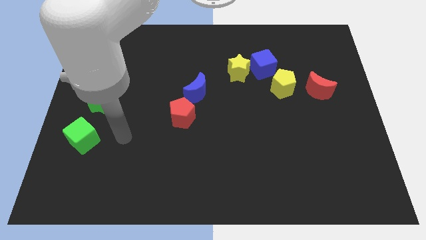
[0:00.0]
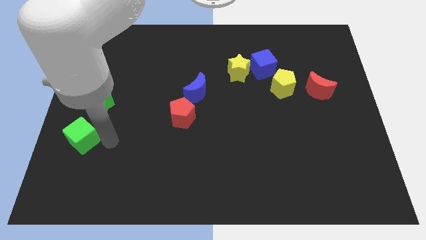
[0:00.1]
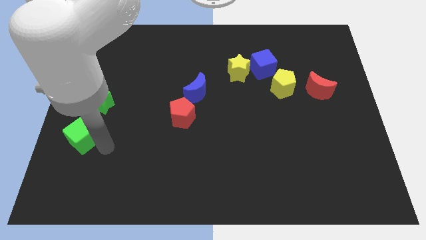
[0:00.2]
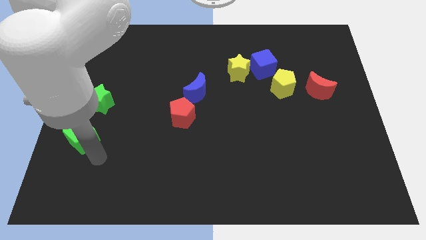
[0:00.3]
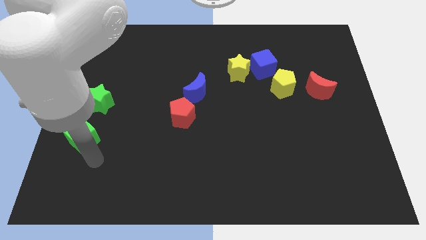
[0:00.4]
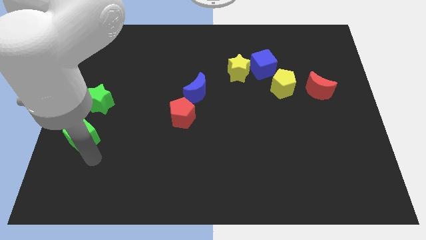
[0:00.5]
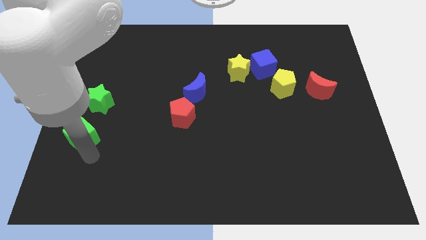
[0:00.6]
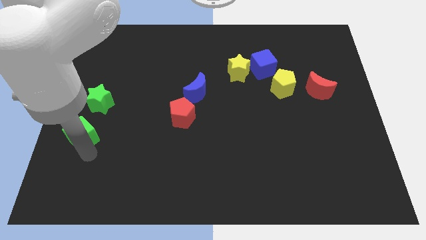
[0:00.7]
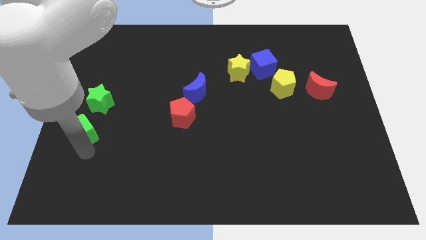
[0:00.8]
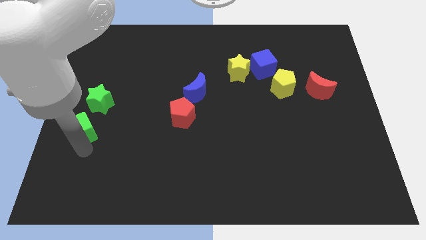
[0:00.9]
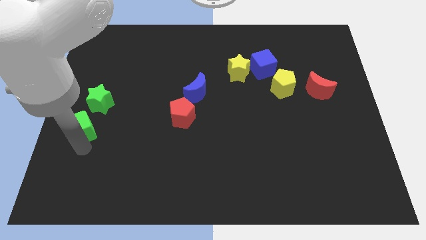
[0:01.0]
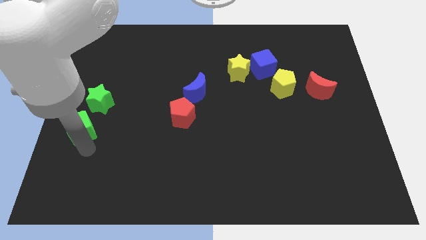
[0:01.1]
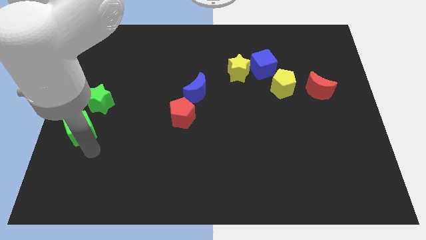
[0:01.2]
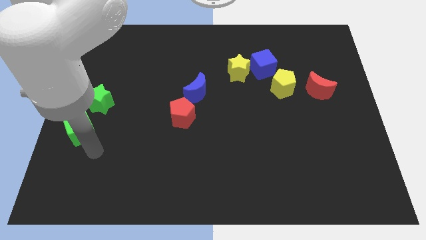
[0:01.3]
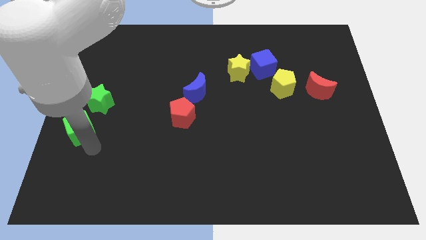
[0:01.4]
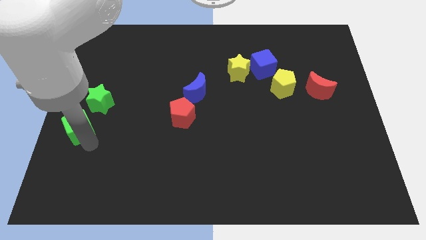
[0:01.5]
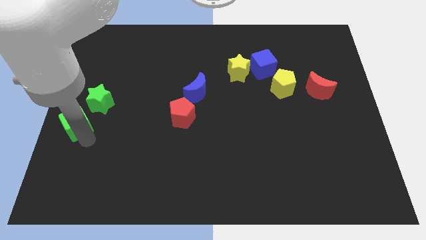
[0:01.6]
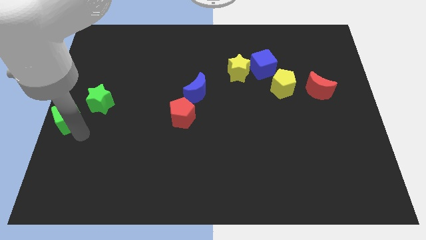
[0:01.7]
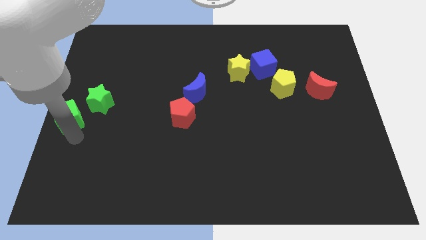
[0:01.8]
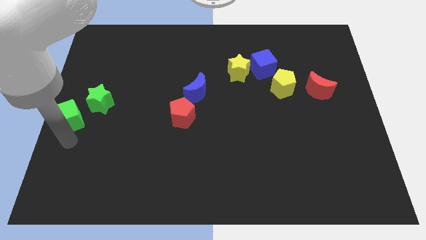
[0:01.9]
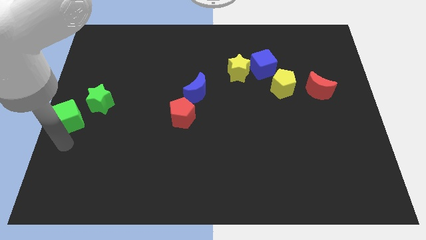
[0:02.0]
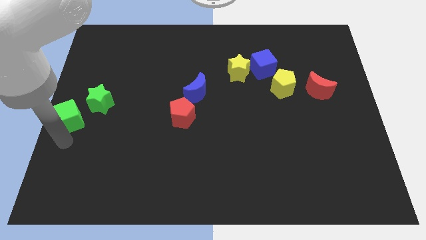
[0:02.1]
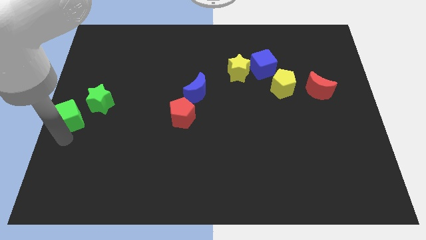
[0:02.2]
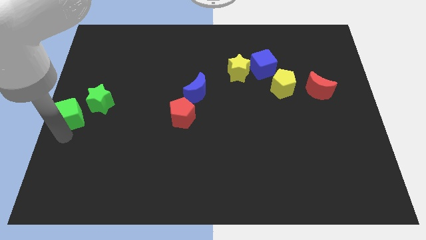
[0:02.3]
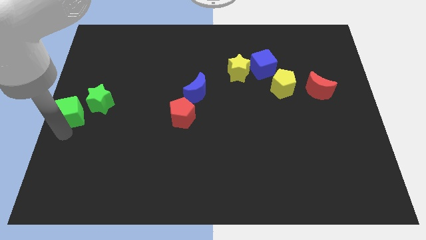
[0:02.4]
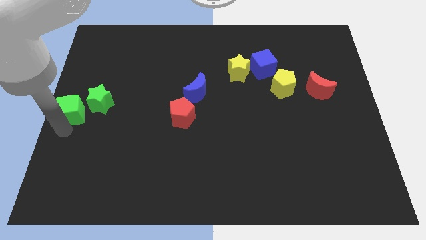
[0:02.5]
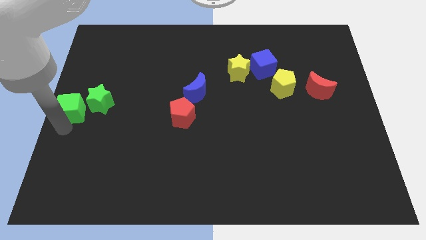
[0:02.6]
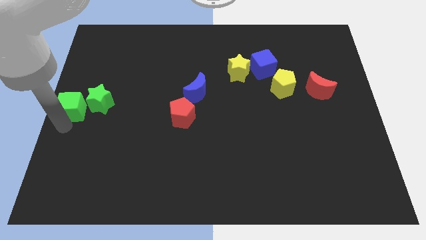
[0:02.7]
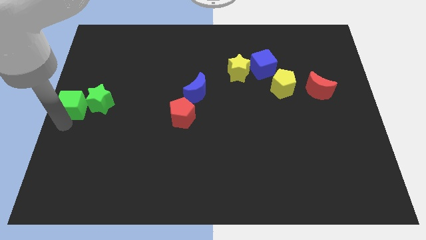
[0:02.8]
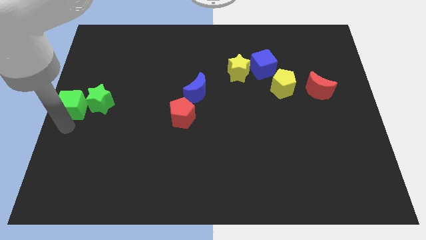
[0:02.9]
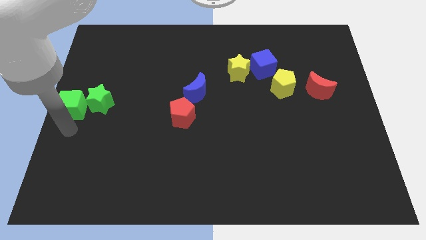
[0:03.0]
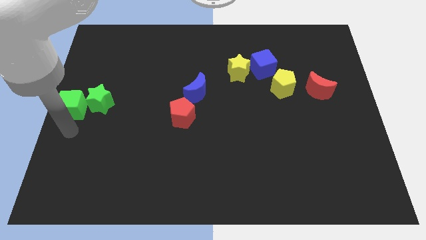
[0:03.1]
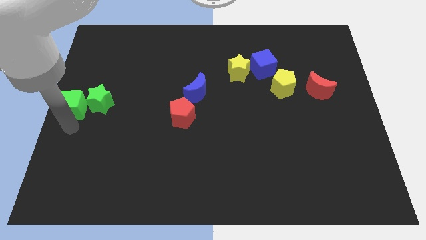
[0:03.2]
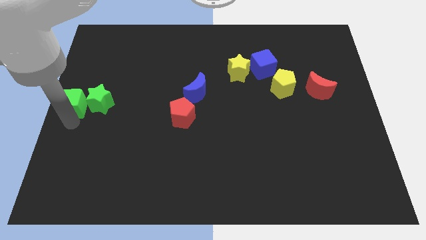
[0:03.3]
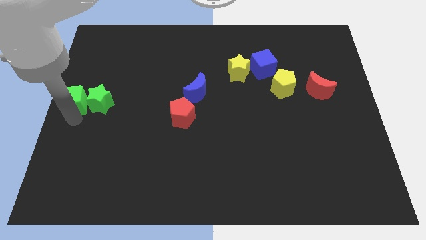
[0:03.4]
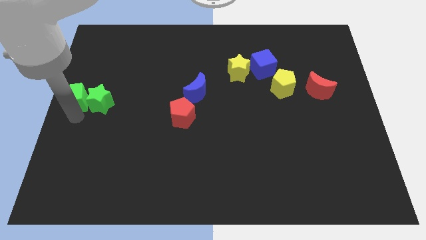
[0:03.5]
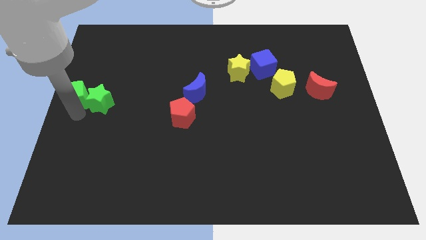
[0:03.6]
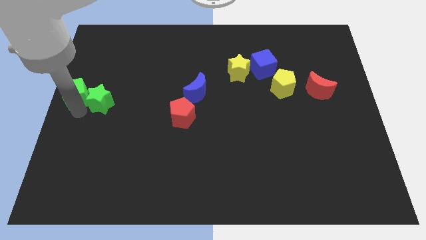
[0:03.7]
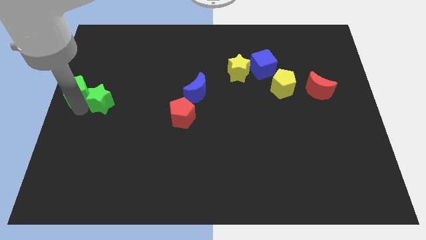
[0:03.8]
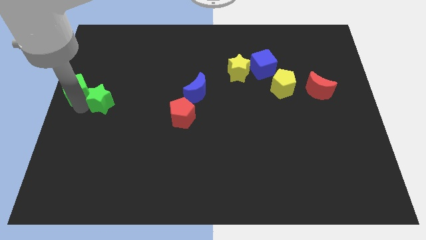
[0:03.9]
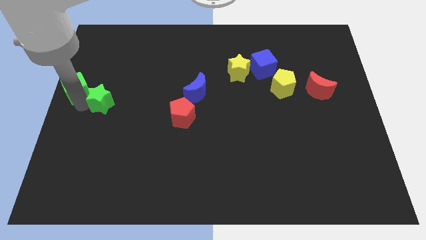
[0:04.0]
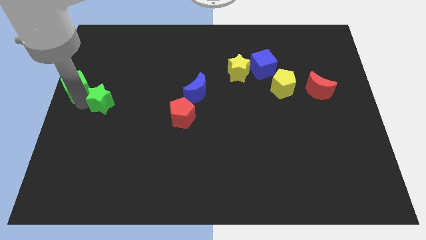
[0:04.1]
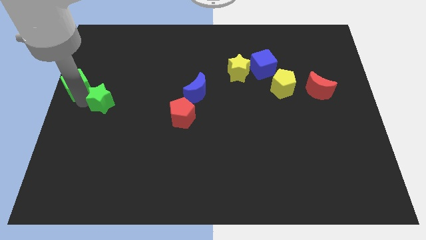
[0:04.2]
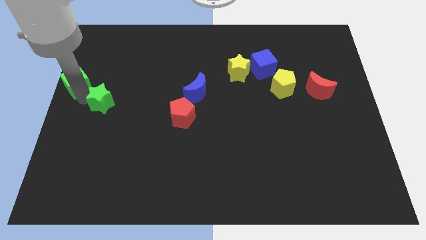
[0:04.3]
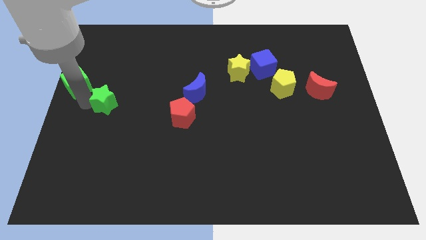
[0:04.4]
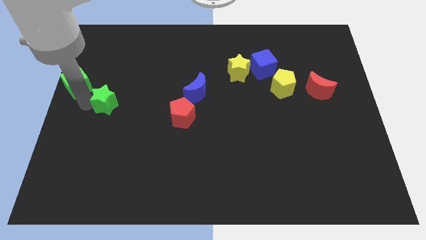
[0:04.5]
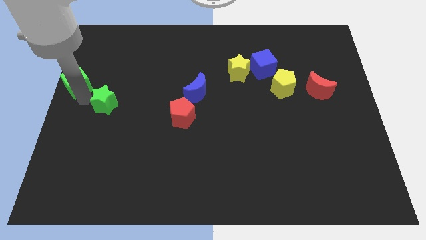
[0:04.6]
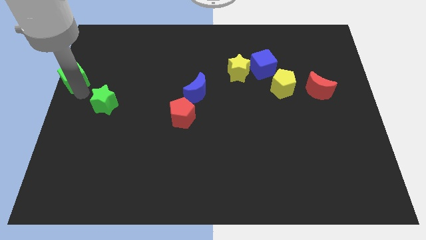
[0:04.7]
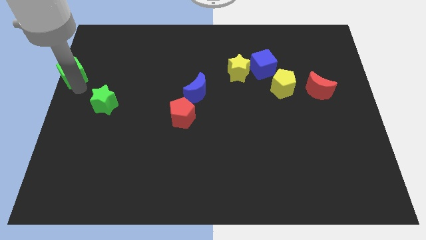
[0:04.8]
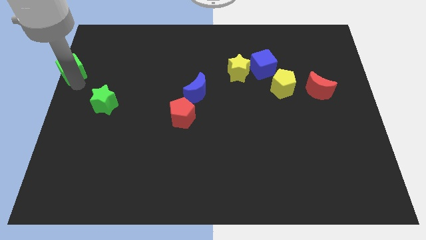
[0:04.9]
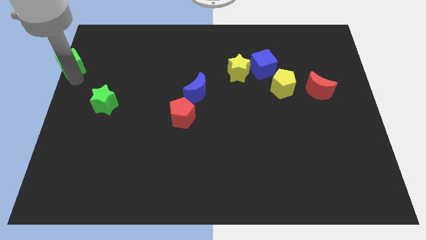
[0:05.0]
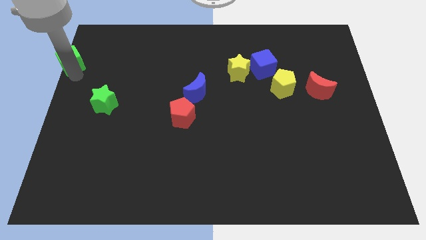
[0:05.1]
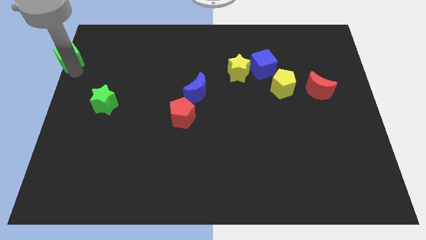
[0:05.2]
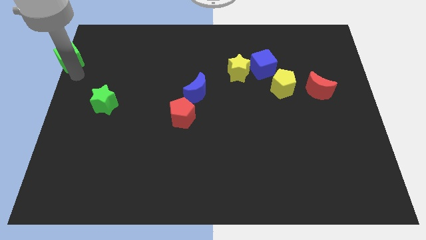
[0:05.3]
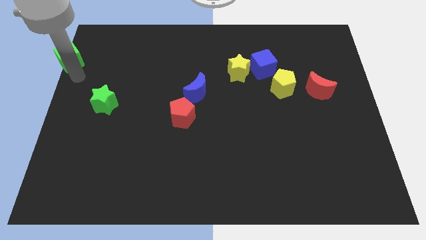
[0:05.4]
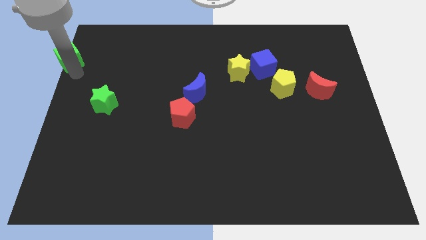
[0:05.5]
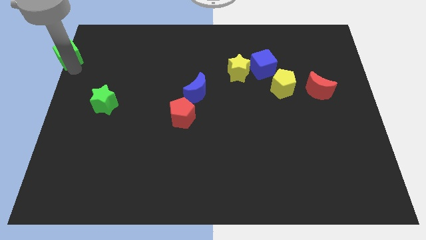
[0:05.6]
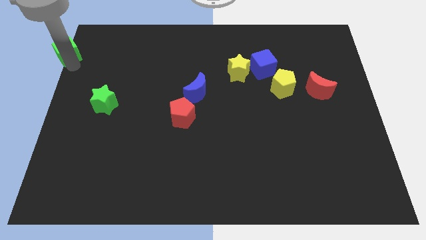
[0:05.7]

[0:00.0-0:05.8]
move the green cube to the top left
